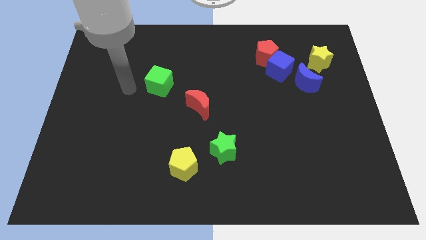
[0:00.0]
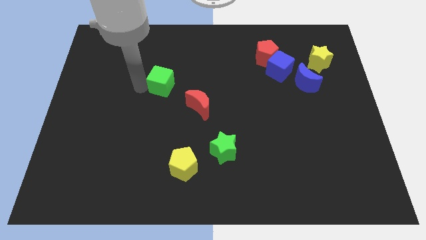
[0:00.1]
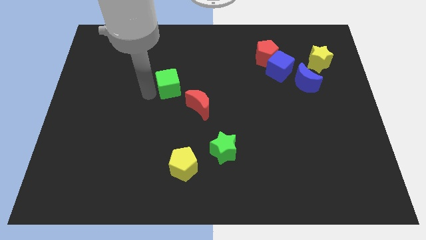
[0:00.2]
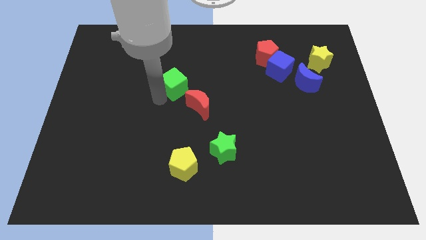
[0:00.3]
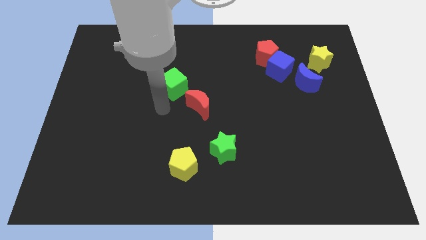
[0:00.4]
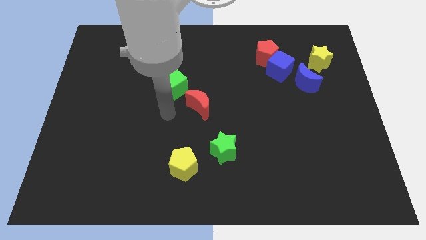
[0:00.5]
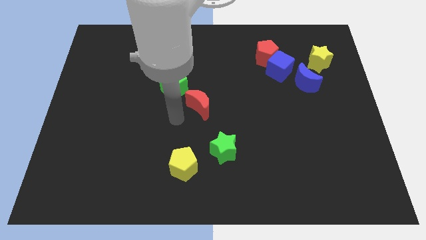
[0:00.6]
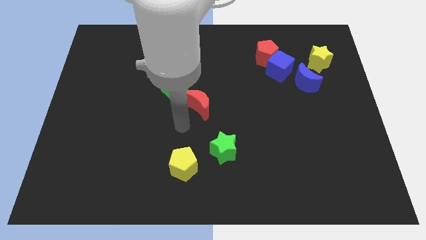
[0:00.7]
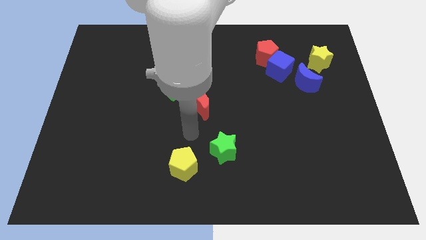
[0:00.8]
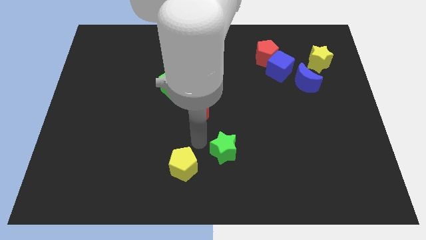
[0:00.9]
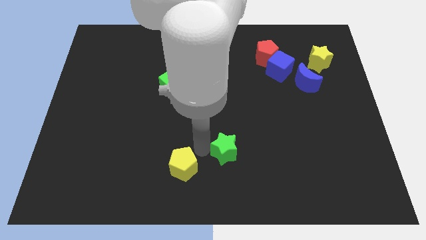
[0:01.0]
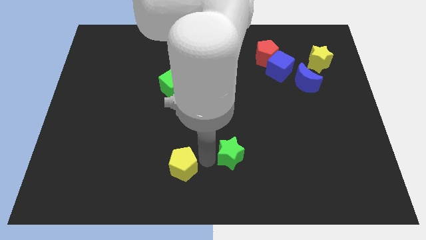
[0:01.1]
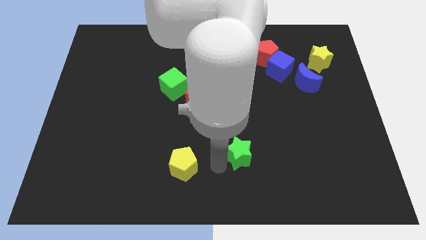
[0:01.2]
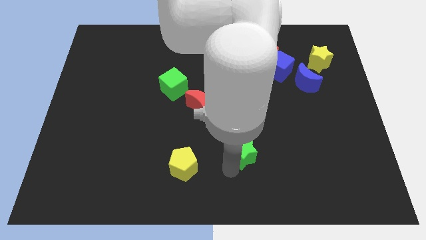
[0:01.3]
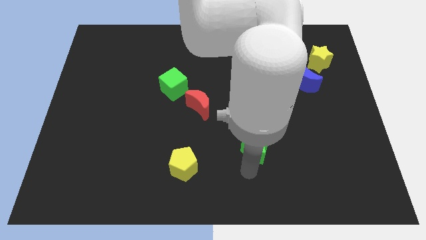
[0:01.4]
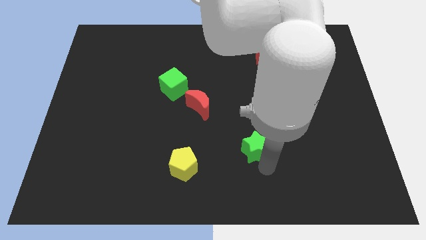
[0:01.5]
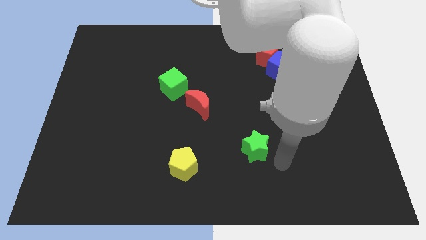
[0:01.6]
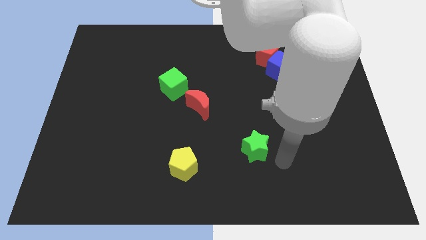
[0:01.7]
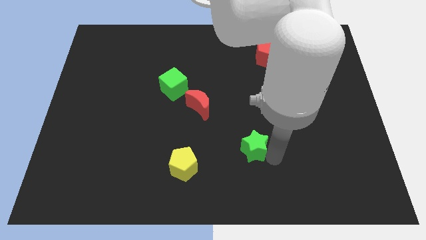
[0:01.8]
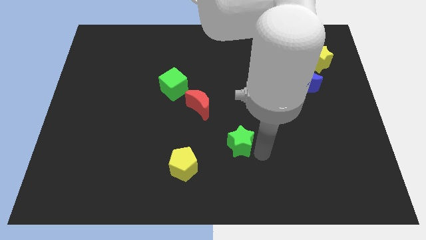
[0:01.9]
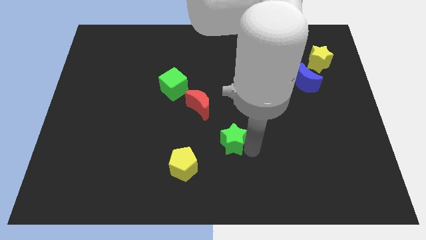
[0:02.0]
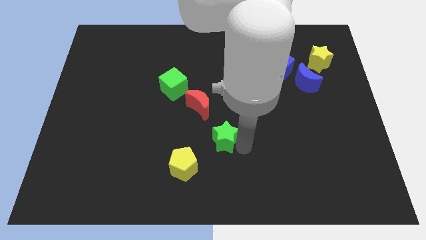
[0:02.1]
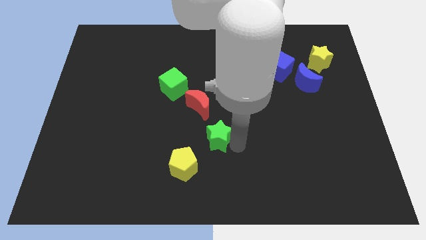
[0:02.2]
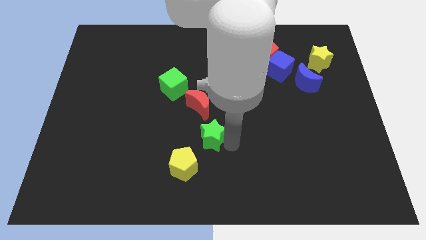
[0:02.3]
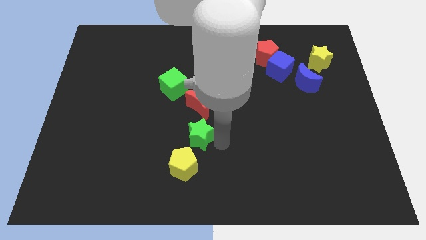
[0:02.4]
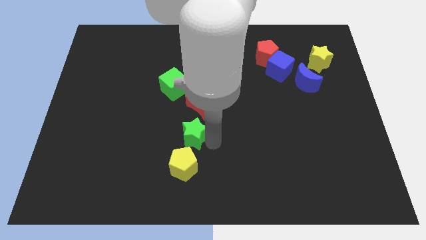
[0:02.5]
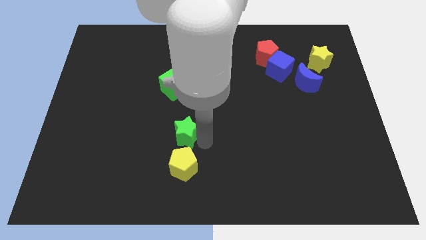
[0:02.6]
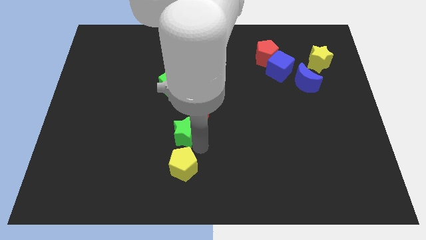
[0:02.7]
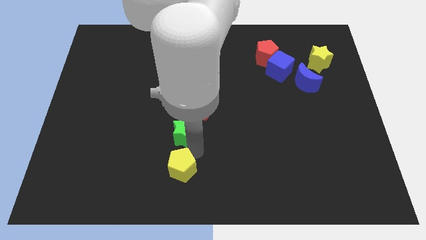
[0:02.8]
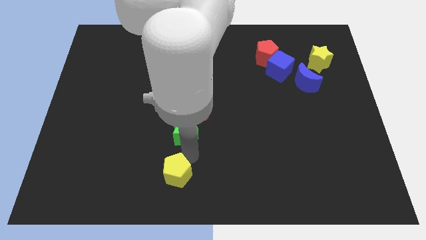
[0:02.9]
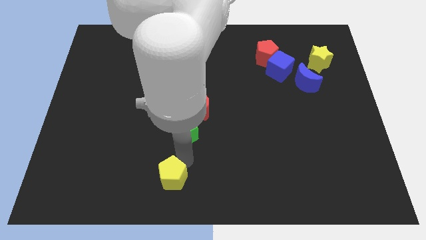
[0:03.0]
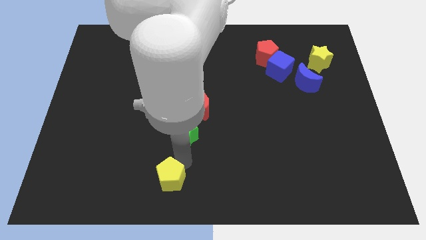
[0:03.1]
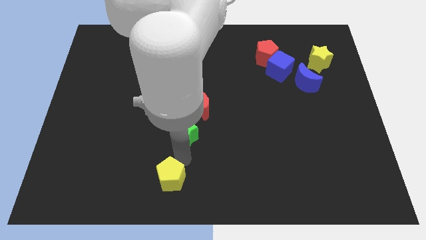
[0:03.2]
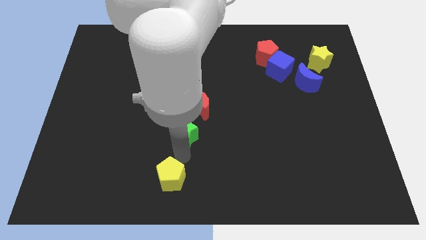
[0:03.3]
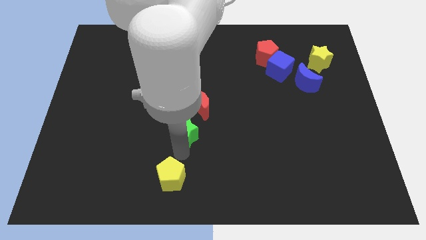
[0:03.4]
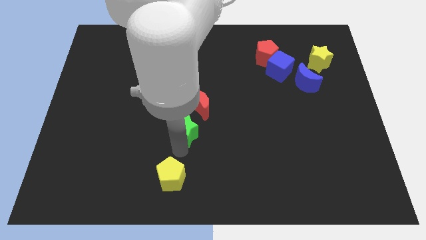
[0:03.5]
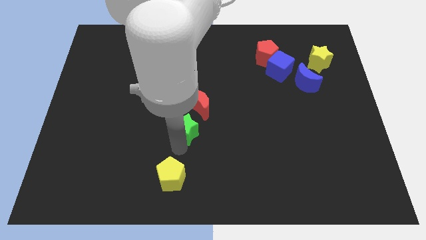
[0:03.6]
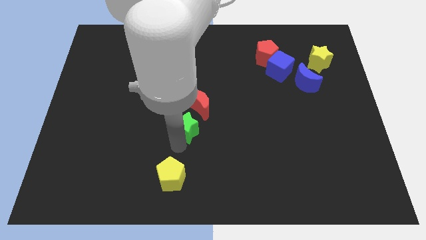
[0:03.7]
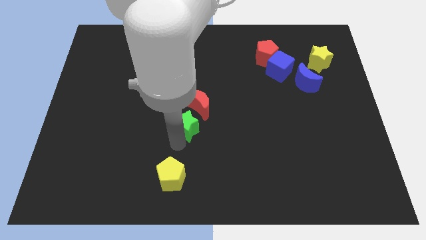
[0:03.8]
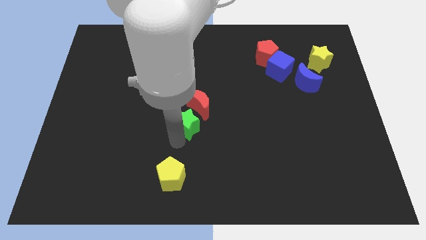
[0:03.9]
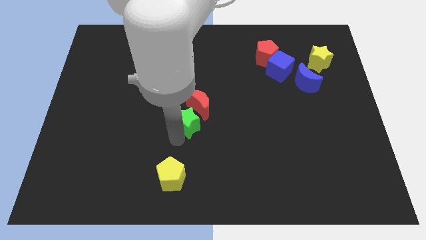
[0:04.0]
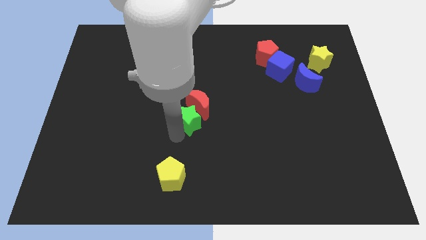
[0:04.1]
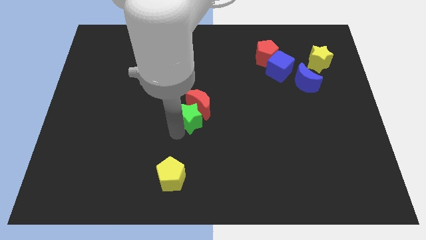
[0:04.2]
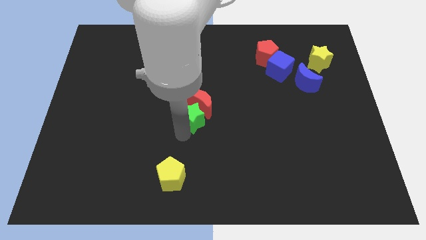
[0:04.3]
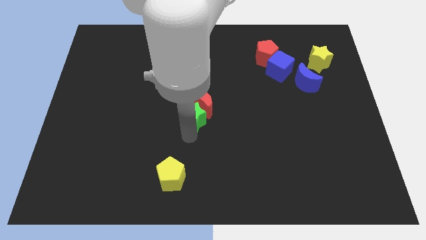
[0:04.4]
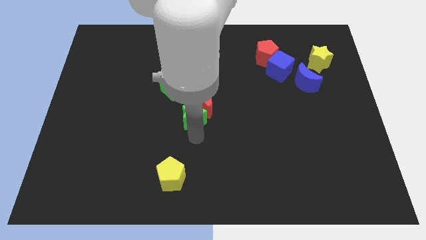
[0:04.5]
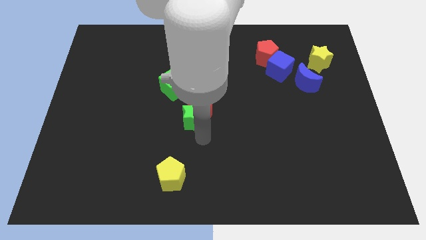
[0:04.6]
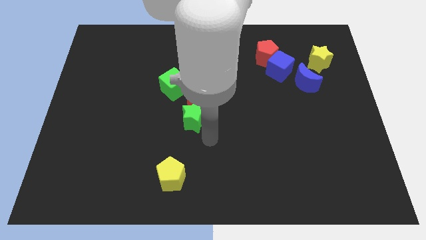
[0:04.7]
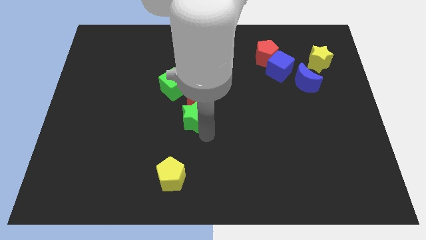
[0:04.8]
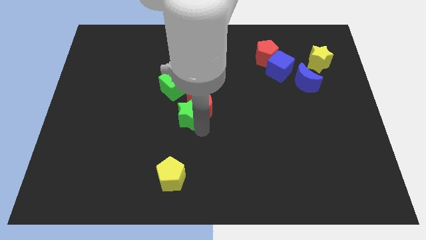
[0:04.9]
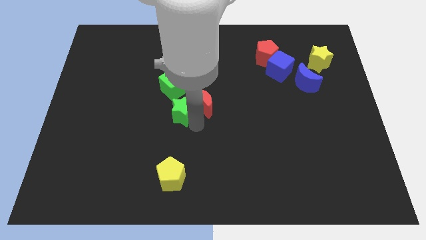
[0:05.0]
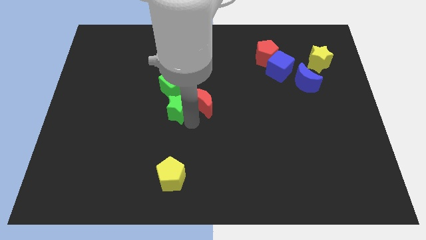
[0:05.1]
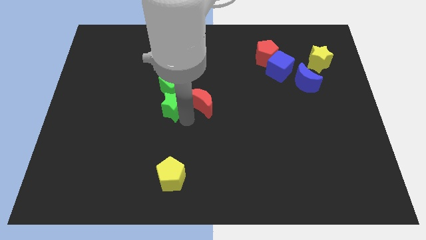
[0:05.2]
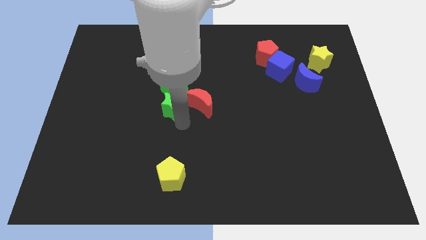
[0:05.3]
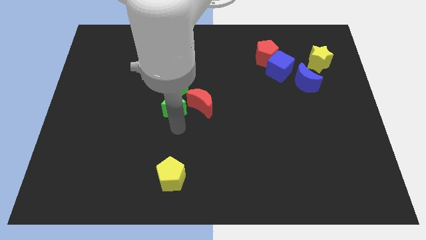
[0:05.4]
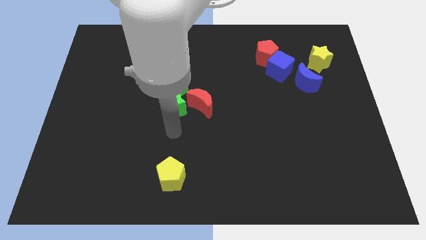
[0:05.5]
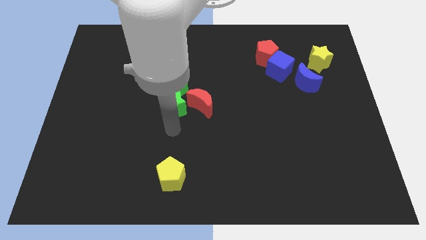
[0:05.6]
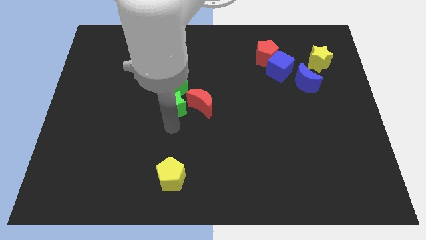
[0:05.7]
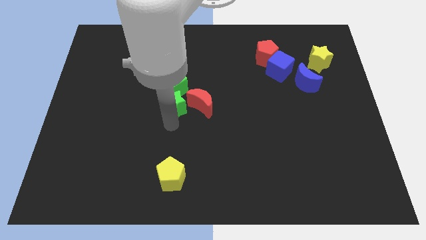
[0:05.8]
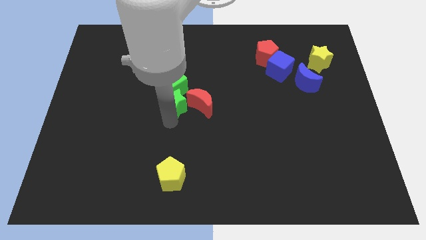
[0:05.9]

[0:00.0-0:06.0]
move the green star next to the green cube

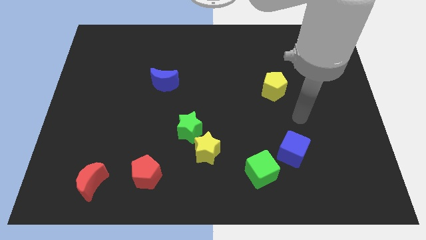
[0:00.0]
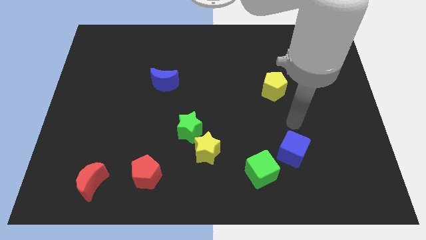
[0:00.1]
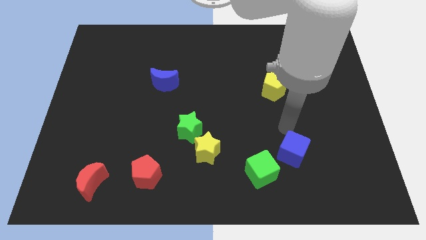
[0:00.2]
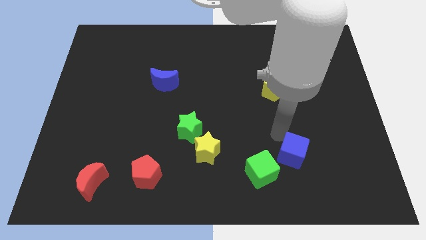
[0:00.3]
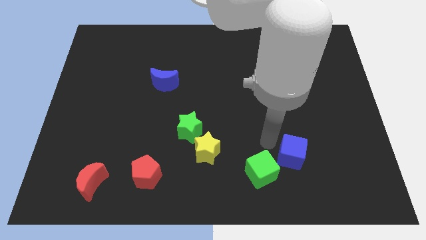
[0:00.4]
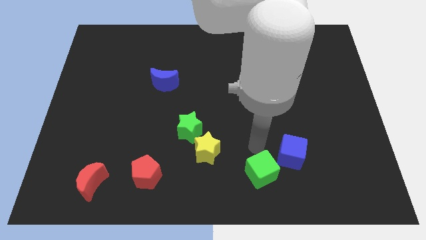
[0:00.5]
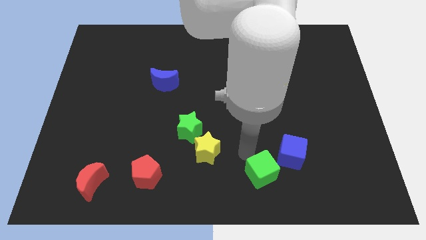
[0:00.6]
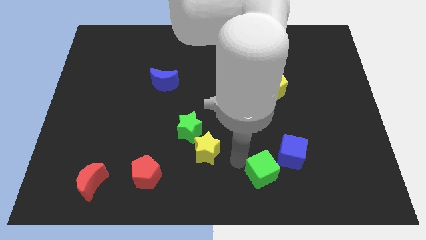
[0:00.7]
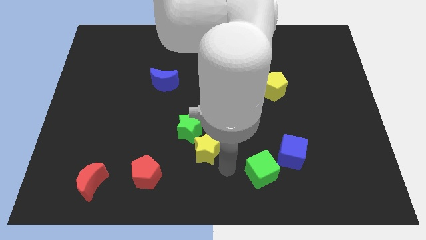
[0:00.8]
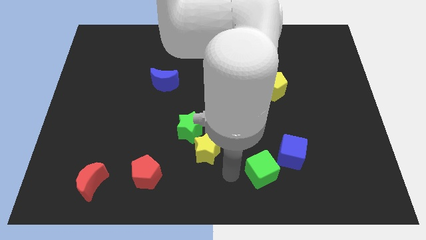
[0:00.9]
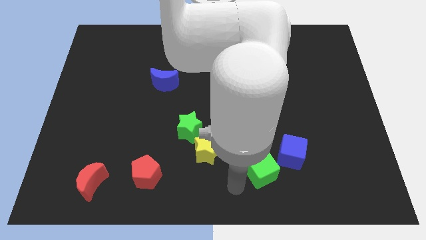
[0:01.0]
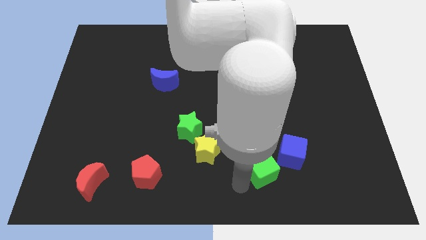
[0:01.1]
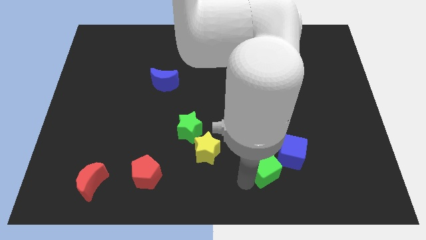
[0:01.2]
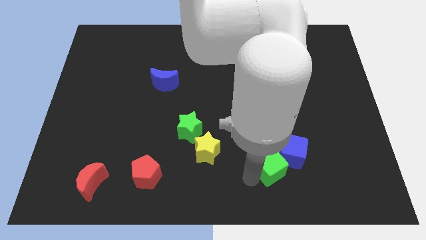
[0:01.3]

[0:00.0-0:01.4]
put the green cube towards the blue cube
